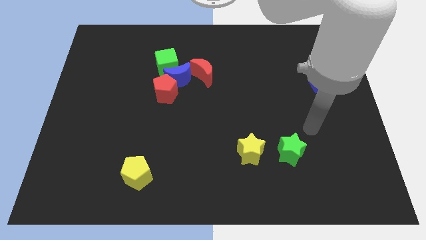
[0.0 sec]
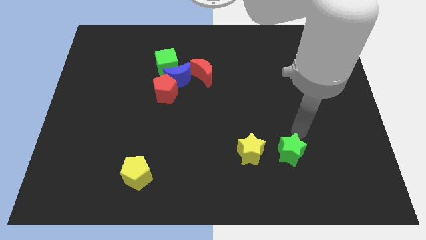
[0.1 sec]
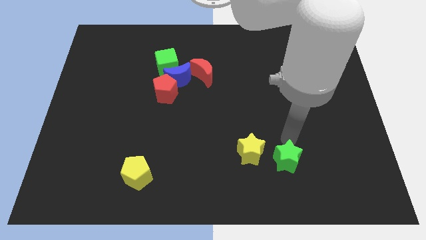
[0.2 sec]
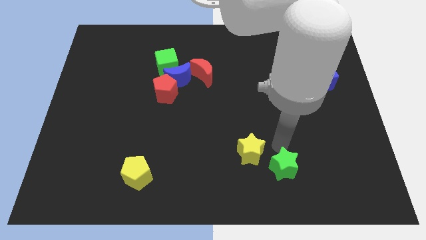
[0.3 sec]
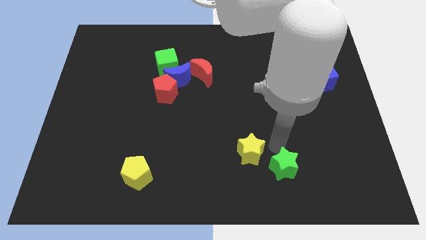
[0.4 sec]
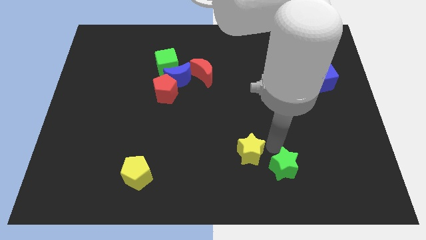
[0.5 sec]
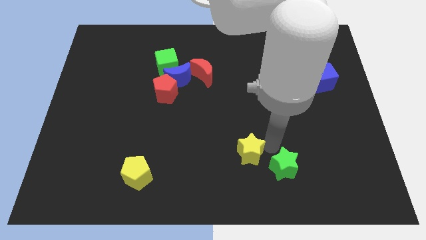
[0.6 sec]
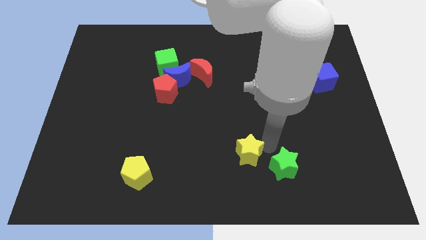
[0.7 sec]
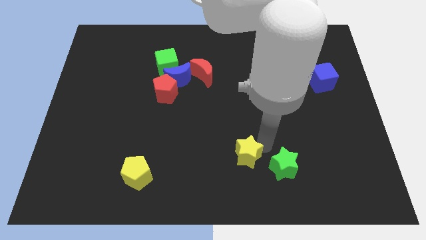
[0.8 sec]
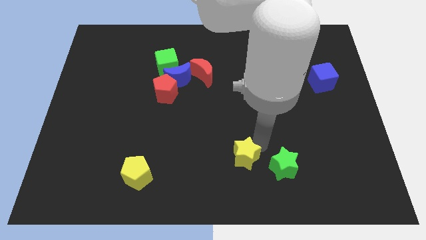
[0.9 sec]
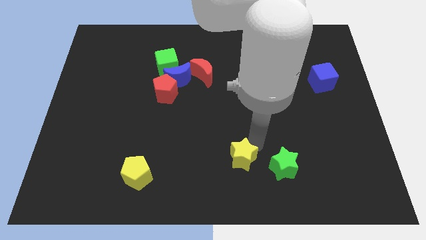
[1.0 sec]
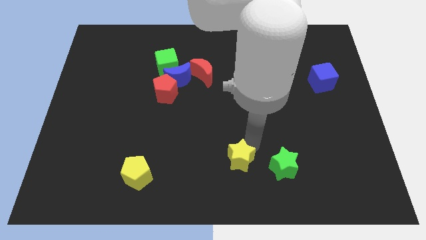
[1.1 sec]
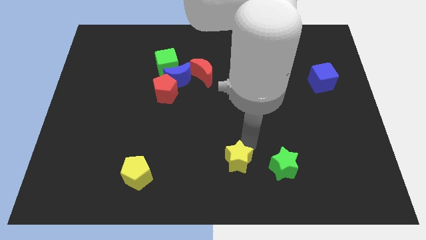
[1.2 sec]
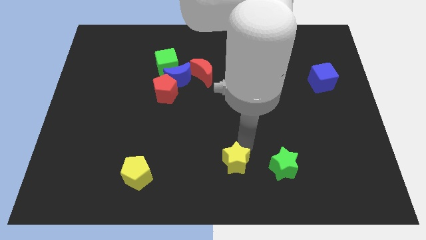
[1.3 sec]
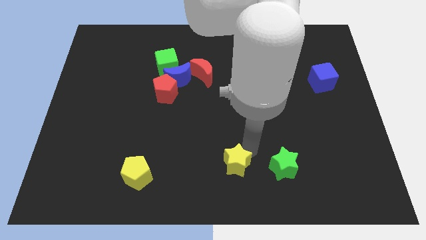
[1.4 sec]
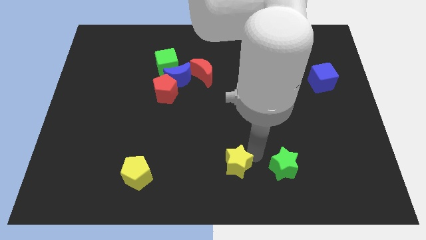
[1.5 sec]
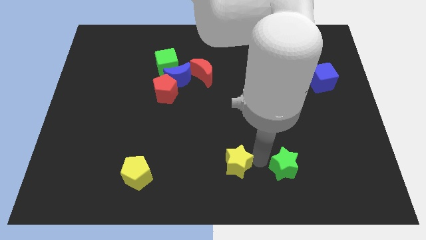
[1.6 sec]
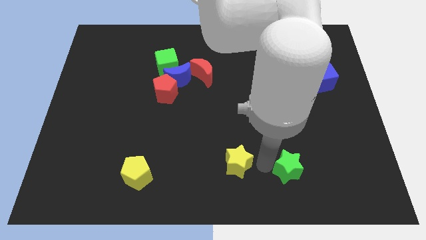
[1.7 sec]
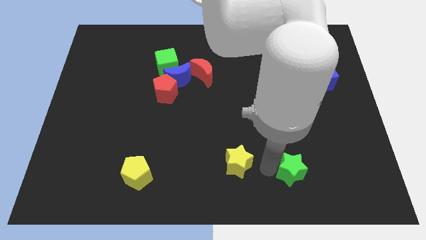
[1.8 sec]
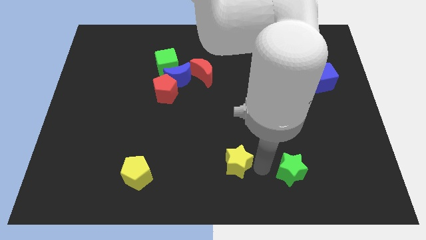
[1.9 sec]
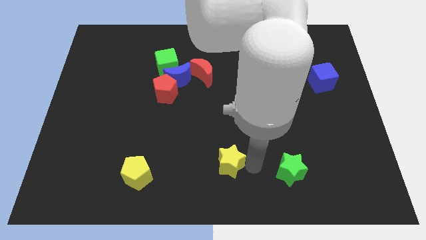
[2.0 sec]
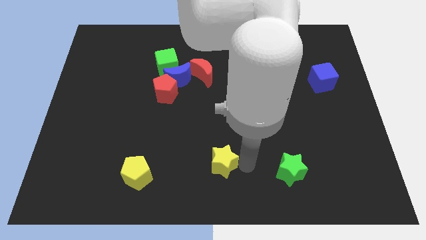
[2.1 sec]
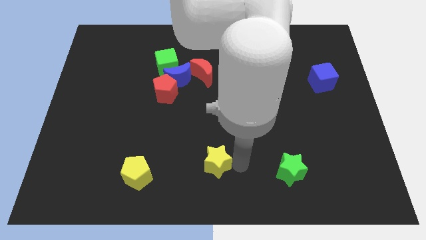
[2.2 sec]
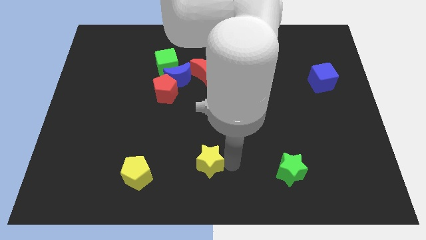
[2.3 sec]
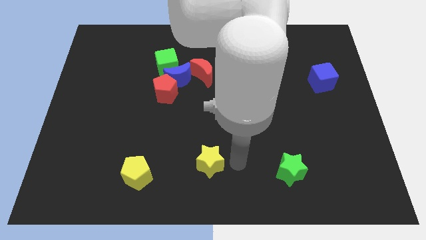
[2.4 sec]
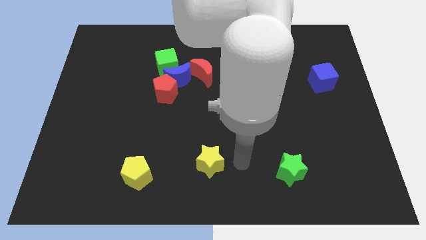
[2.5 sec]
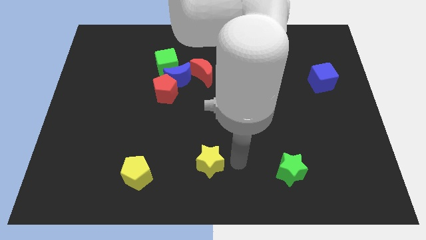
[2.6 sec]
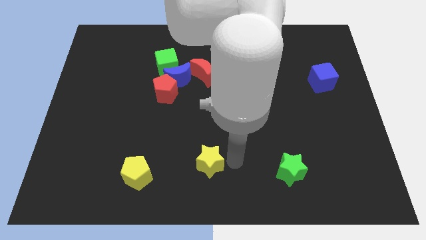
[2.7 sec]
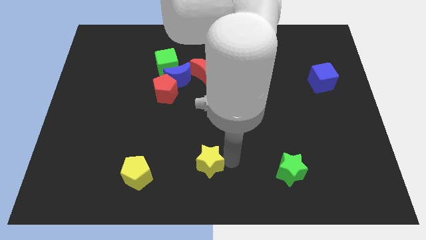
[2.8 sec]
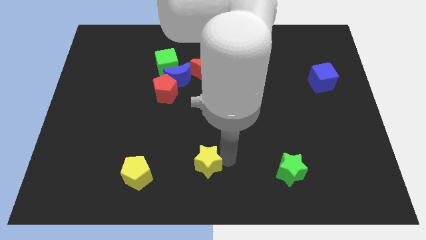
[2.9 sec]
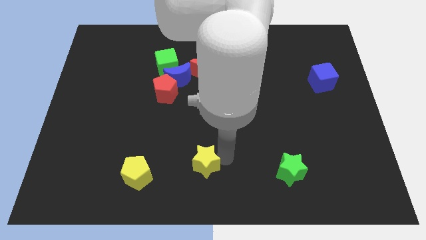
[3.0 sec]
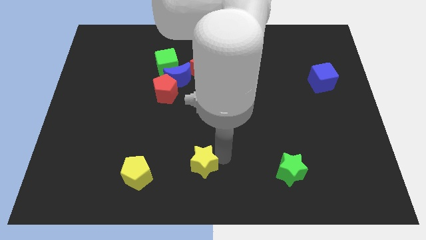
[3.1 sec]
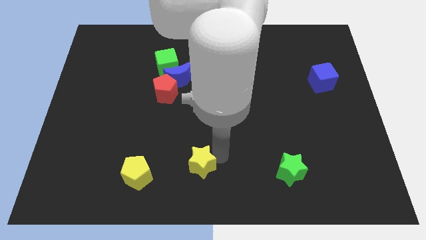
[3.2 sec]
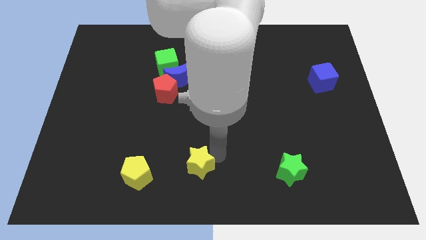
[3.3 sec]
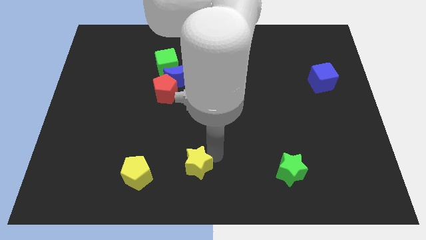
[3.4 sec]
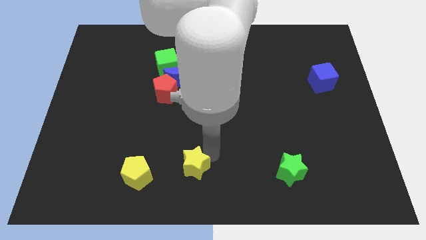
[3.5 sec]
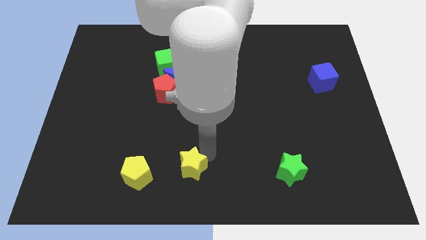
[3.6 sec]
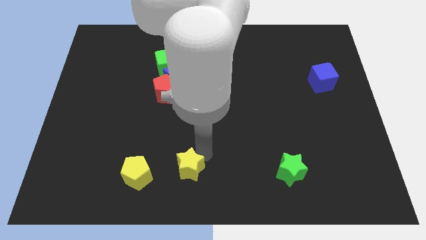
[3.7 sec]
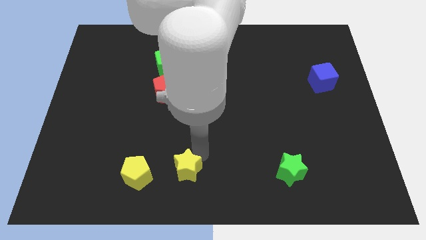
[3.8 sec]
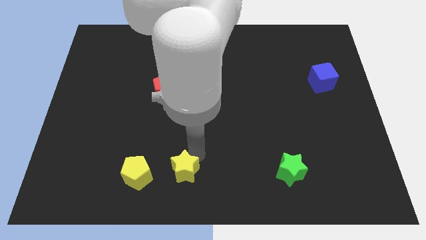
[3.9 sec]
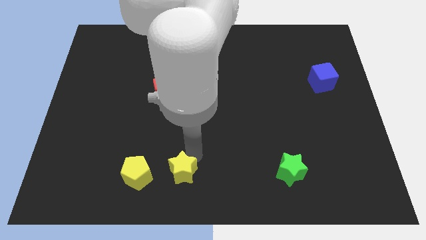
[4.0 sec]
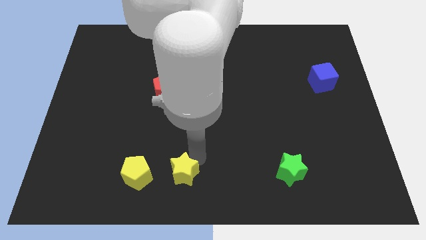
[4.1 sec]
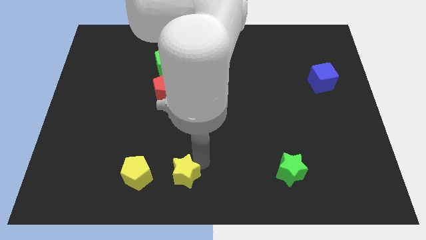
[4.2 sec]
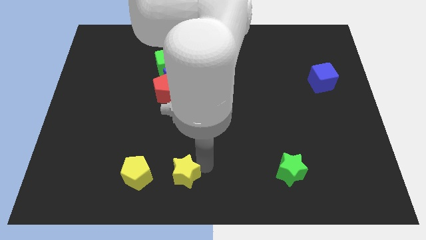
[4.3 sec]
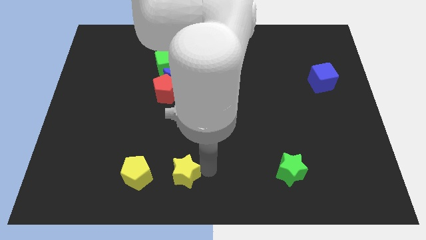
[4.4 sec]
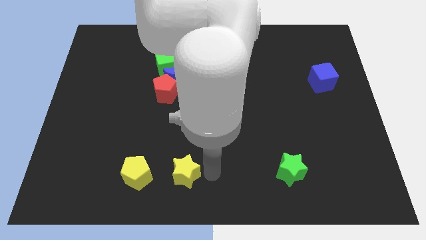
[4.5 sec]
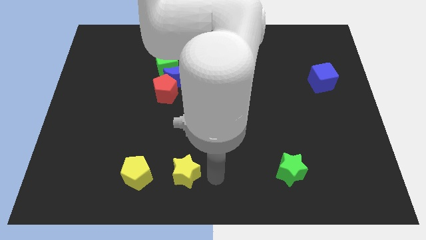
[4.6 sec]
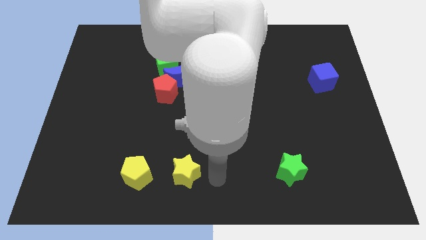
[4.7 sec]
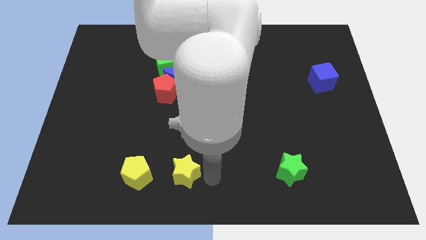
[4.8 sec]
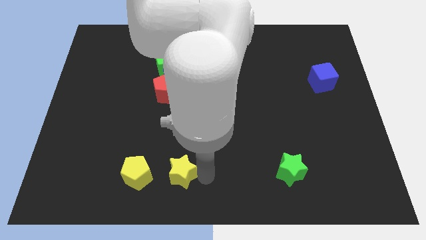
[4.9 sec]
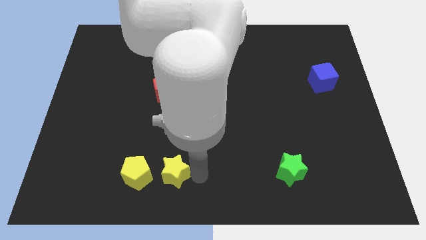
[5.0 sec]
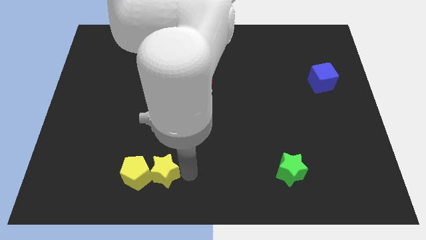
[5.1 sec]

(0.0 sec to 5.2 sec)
put the yellow star to the yellow pentagon

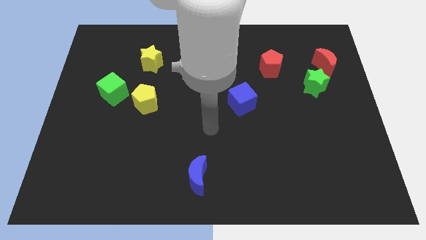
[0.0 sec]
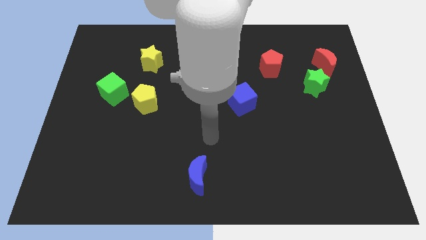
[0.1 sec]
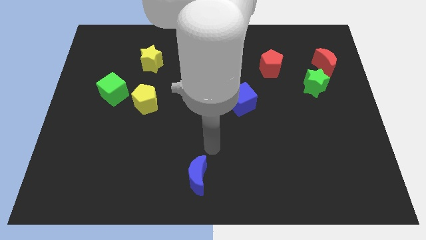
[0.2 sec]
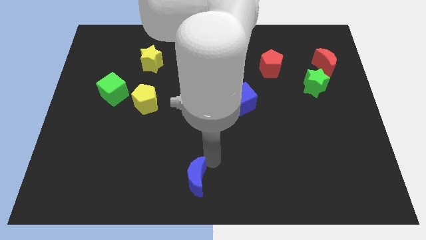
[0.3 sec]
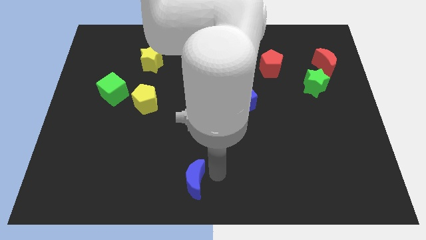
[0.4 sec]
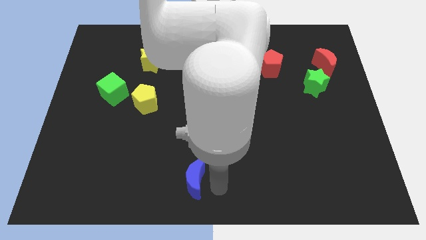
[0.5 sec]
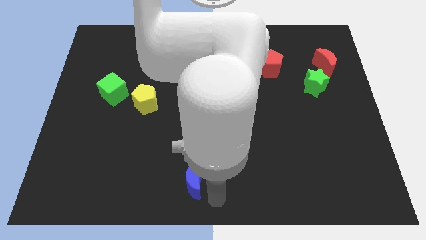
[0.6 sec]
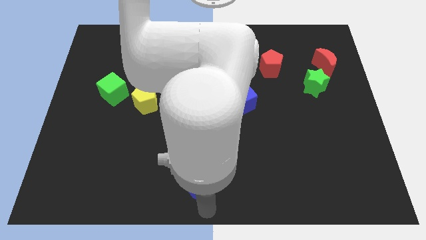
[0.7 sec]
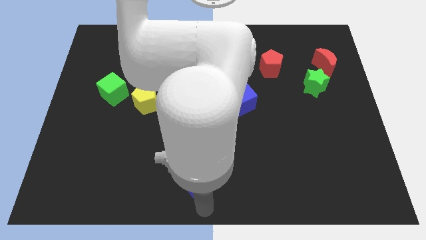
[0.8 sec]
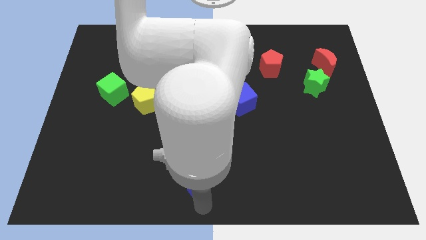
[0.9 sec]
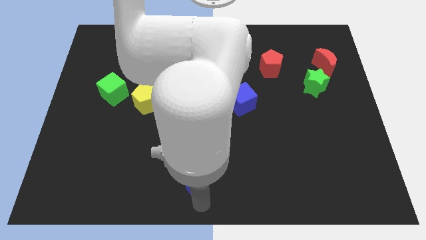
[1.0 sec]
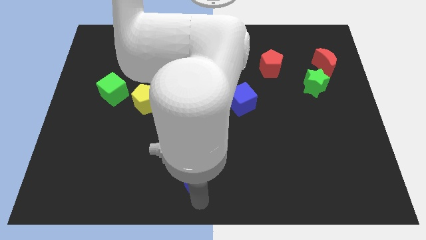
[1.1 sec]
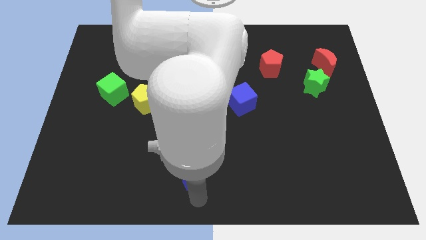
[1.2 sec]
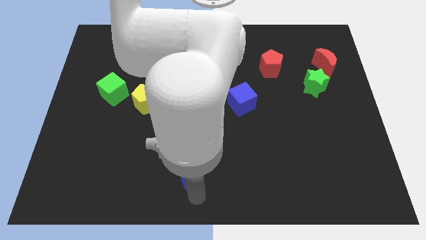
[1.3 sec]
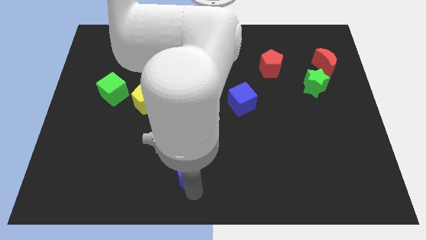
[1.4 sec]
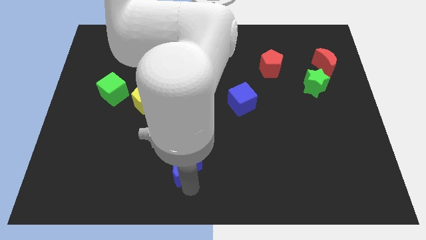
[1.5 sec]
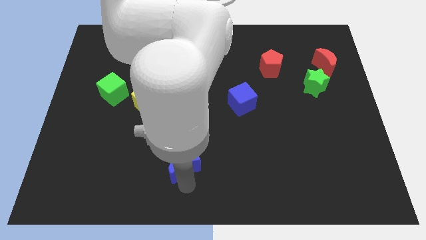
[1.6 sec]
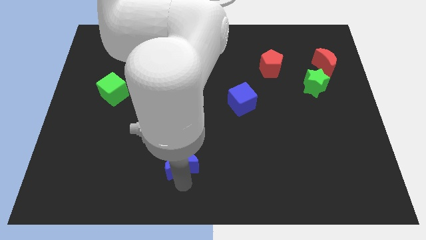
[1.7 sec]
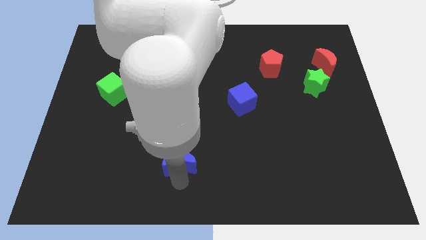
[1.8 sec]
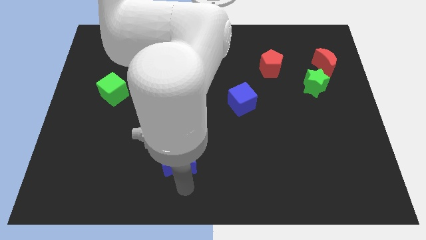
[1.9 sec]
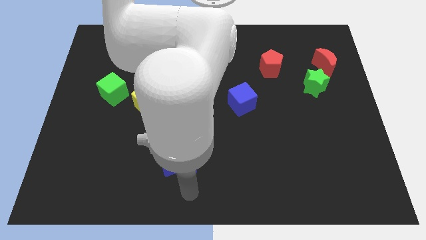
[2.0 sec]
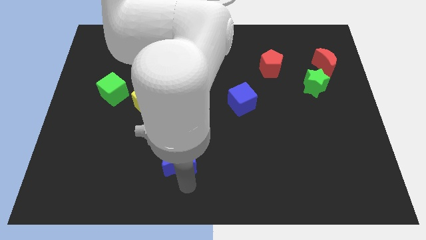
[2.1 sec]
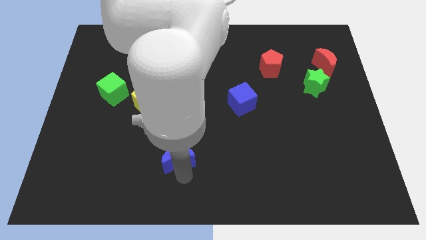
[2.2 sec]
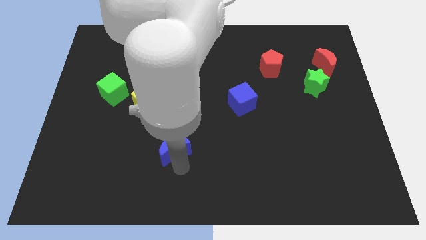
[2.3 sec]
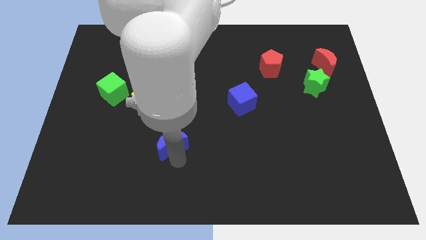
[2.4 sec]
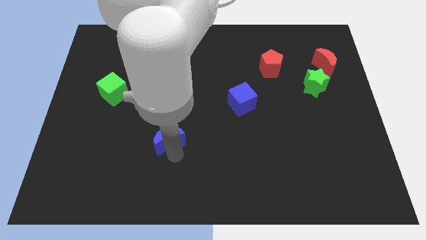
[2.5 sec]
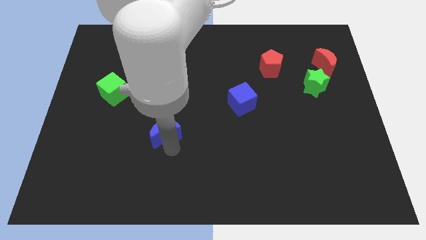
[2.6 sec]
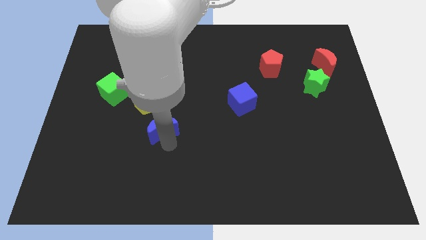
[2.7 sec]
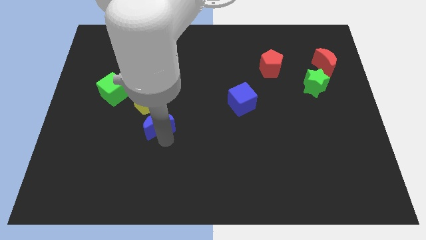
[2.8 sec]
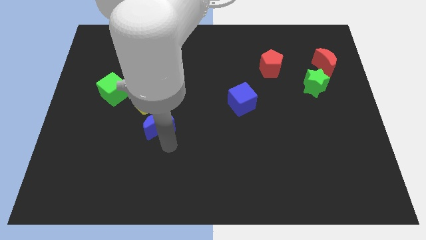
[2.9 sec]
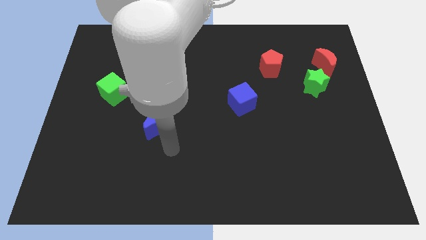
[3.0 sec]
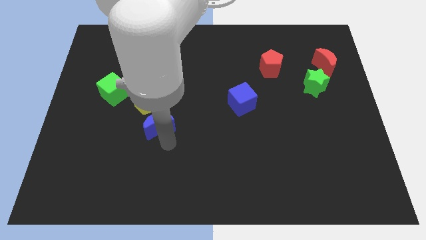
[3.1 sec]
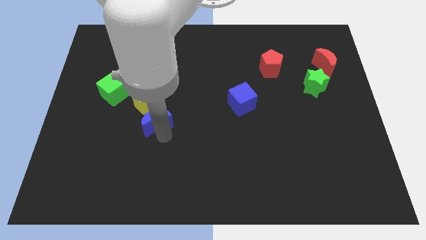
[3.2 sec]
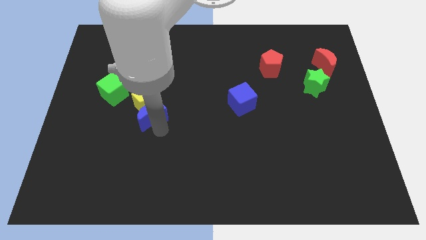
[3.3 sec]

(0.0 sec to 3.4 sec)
move the blue moon close to the yellow pentagon
